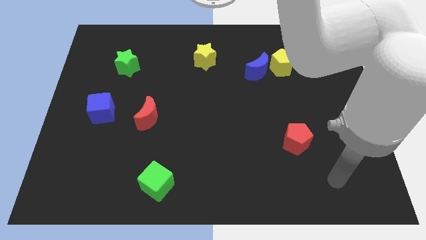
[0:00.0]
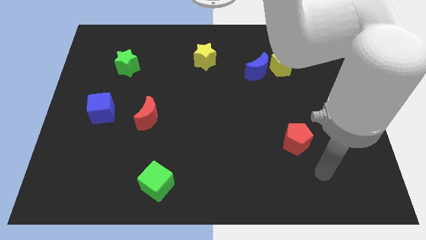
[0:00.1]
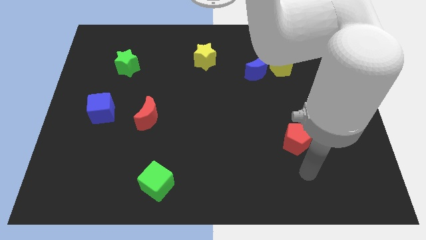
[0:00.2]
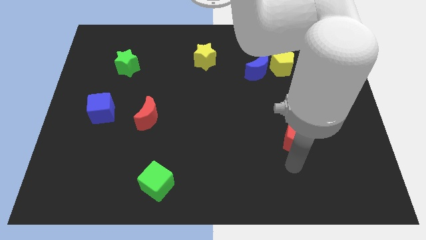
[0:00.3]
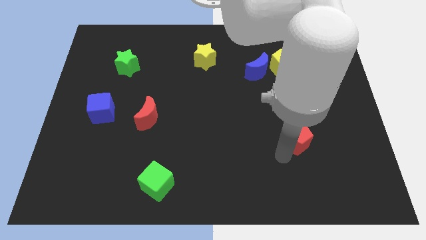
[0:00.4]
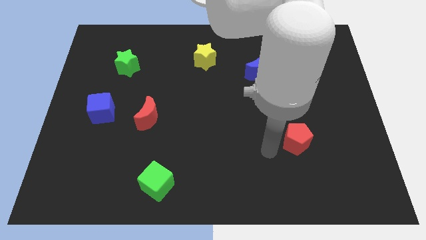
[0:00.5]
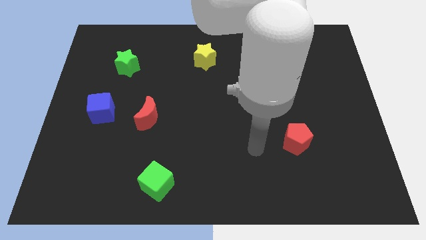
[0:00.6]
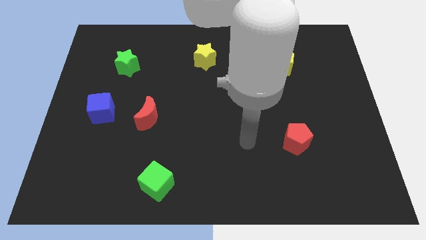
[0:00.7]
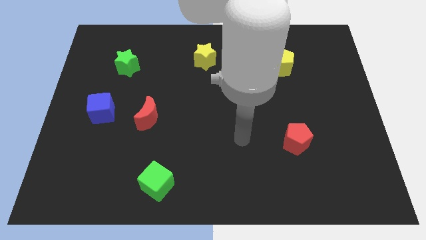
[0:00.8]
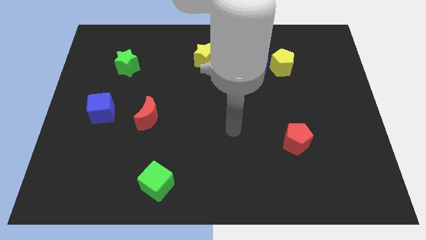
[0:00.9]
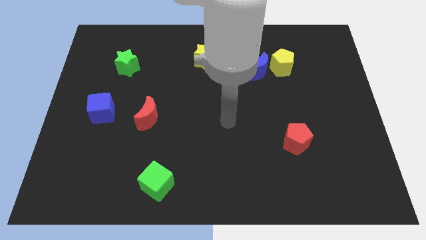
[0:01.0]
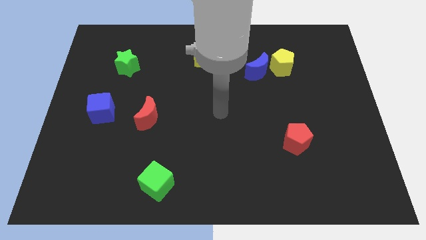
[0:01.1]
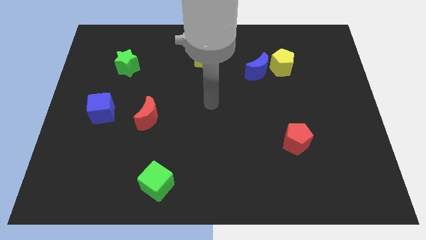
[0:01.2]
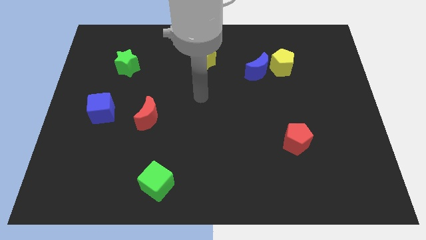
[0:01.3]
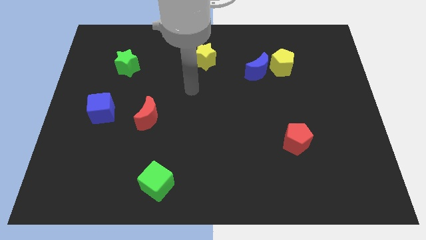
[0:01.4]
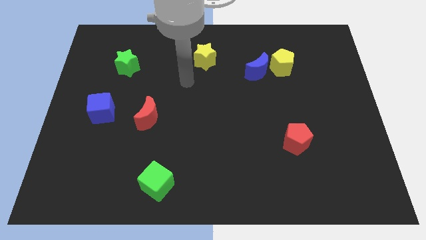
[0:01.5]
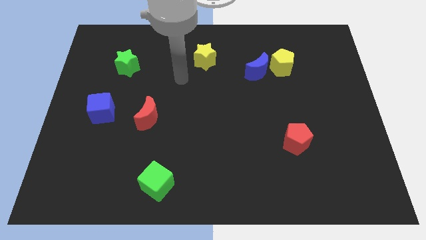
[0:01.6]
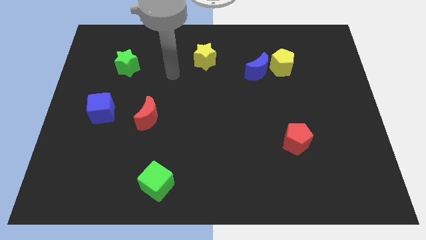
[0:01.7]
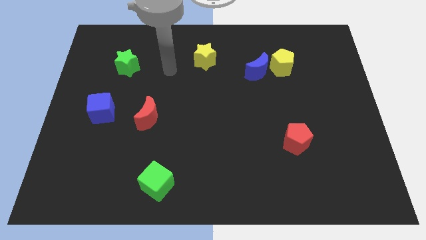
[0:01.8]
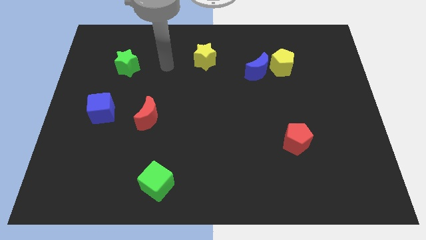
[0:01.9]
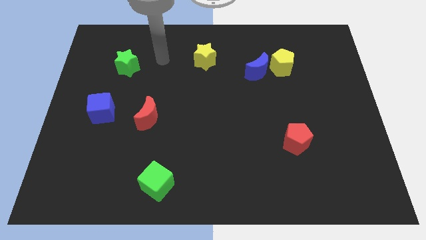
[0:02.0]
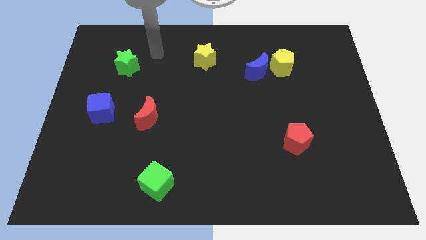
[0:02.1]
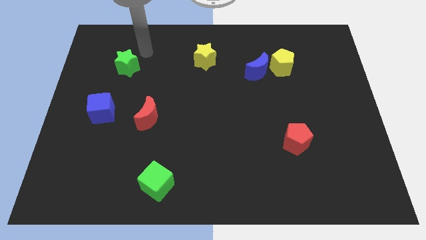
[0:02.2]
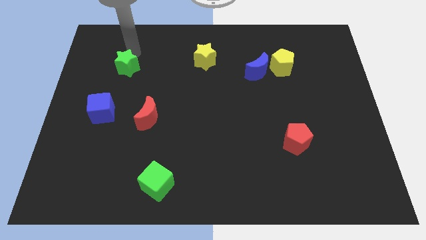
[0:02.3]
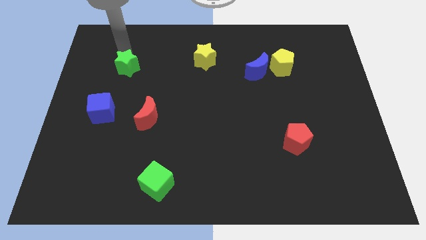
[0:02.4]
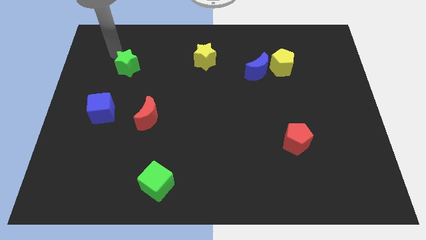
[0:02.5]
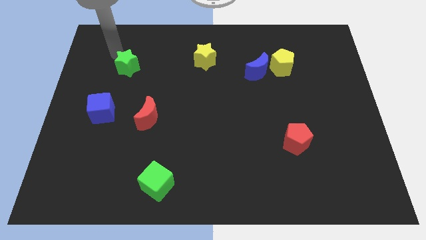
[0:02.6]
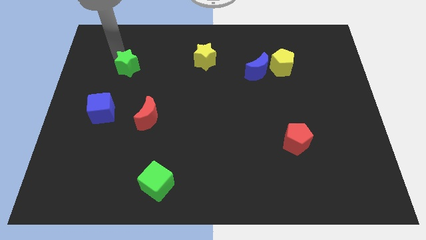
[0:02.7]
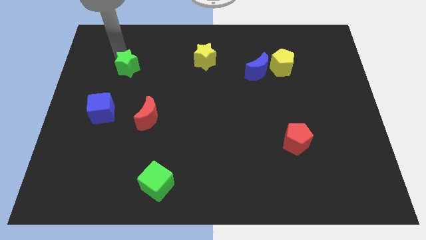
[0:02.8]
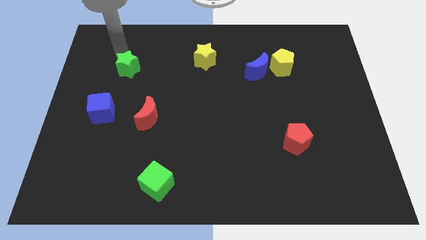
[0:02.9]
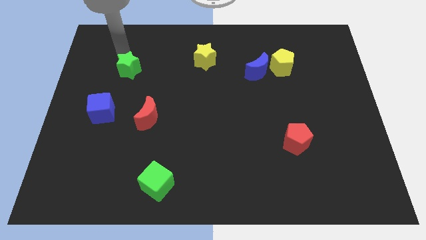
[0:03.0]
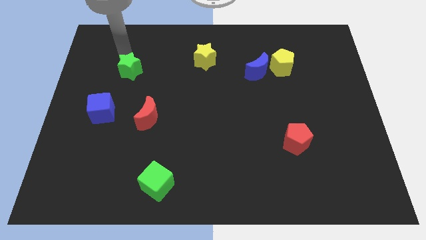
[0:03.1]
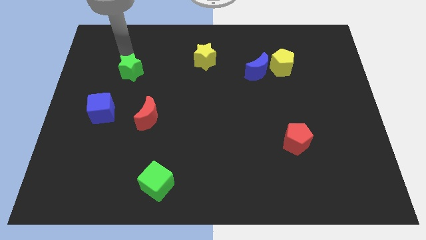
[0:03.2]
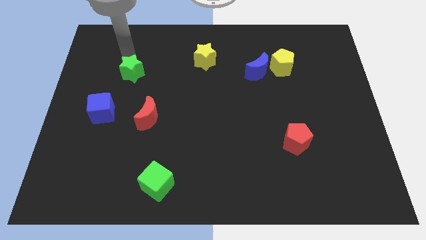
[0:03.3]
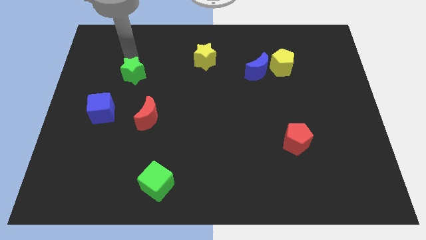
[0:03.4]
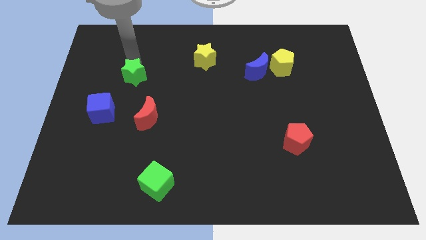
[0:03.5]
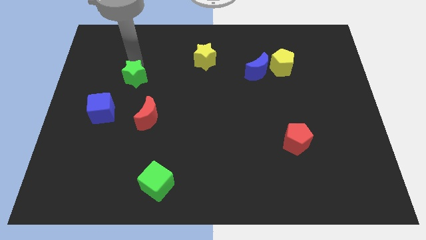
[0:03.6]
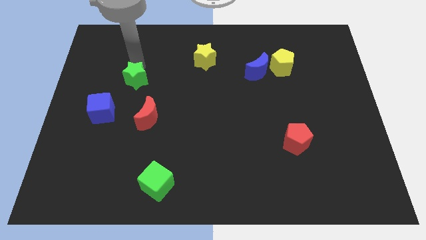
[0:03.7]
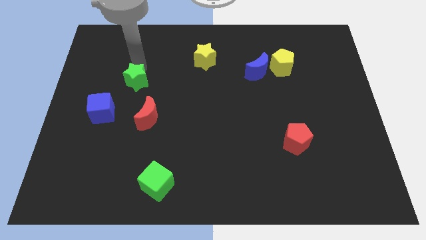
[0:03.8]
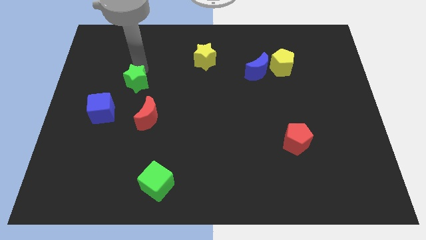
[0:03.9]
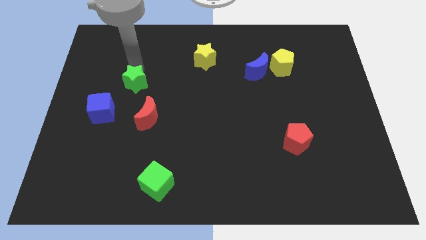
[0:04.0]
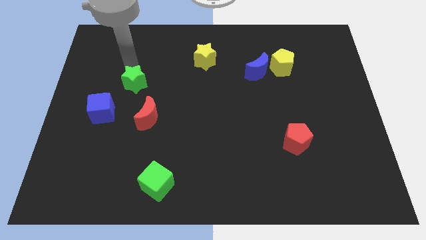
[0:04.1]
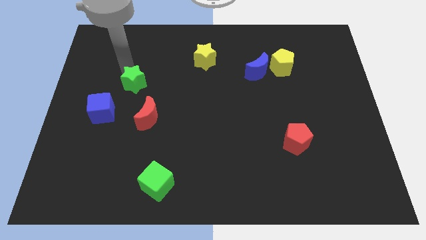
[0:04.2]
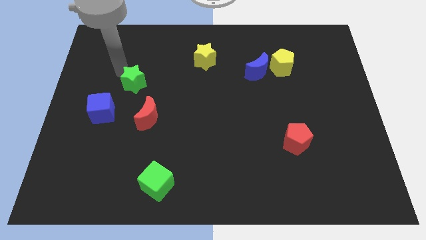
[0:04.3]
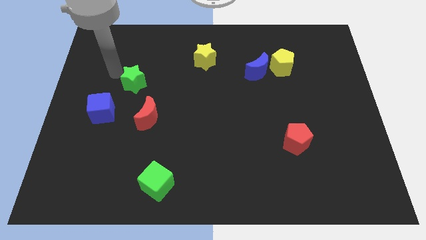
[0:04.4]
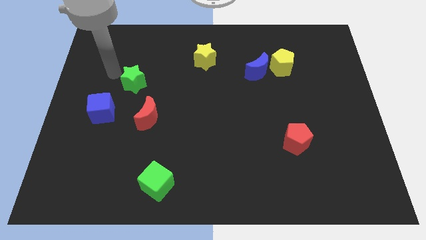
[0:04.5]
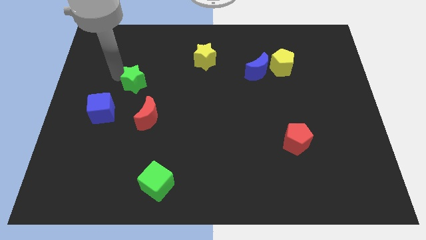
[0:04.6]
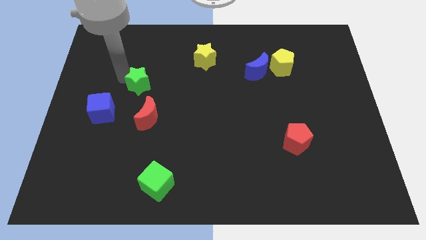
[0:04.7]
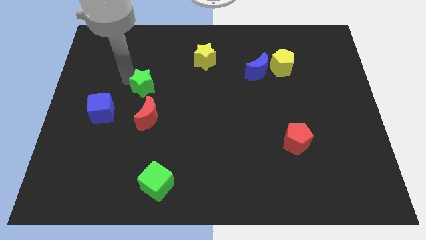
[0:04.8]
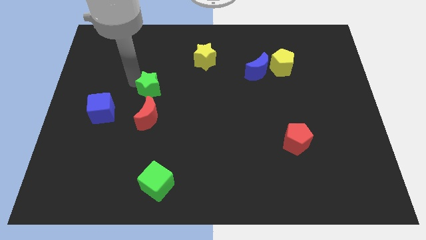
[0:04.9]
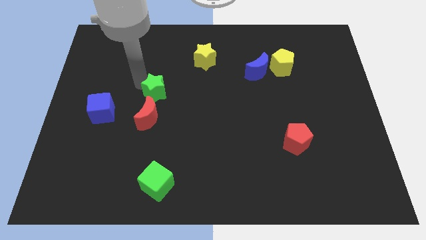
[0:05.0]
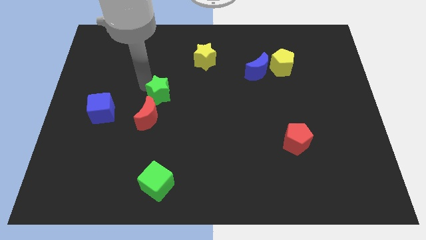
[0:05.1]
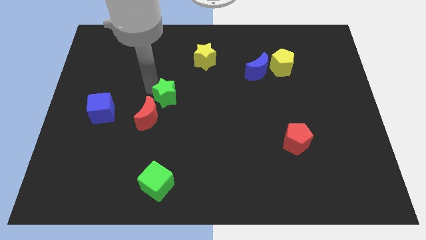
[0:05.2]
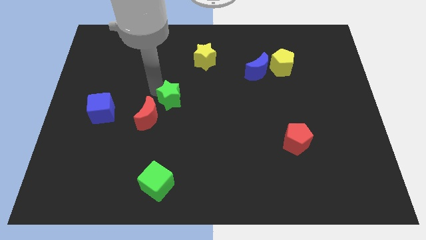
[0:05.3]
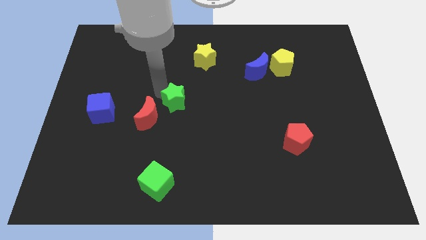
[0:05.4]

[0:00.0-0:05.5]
push the green star to the right side of the red moon
